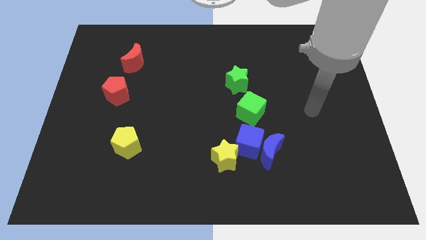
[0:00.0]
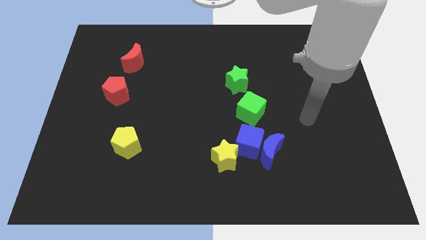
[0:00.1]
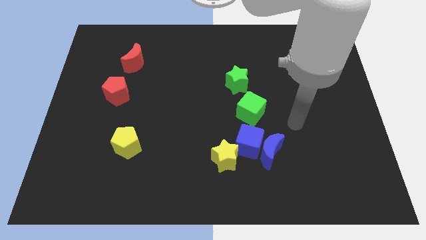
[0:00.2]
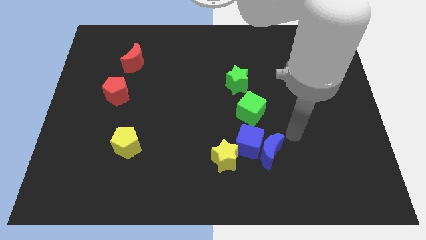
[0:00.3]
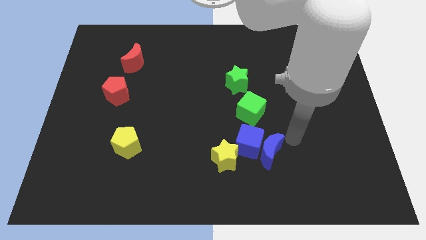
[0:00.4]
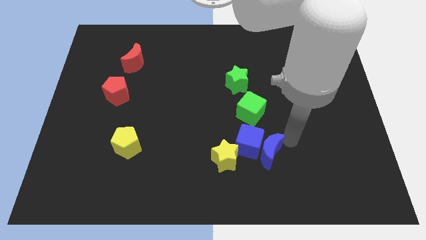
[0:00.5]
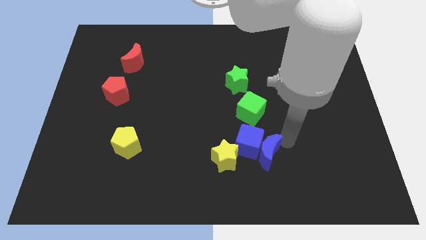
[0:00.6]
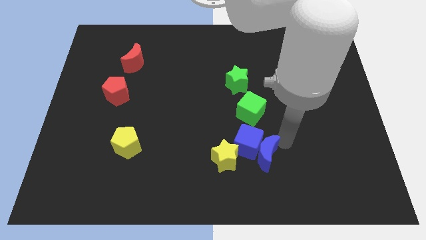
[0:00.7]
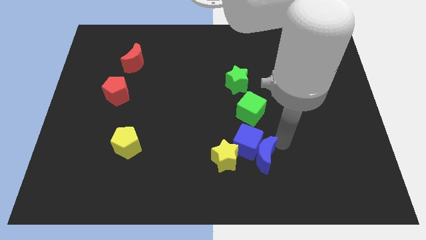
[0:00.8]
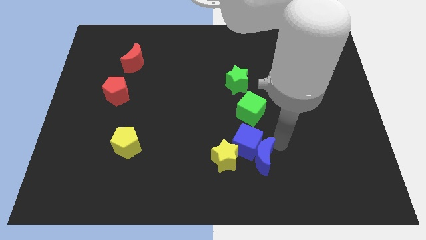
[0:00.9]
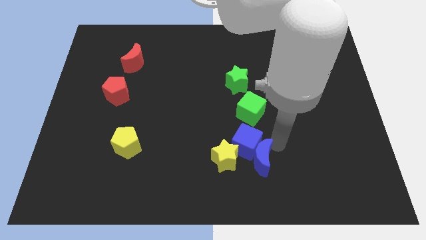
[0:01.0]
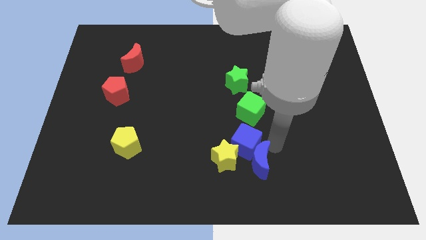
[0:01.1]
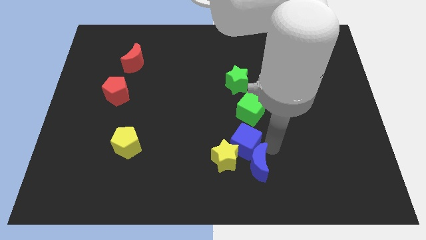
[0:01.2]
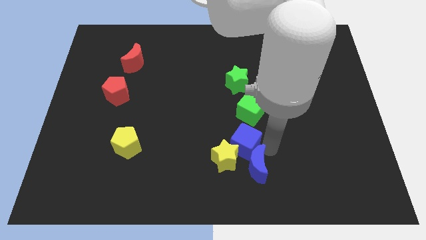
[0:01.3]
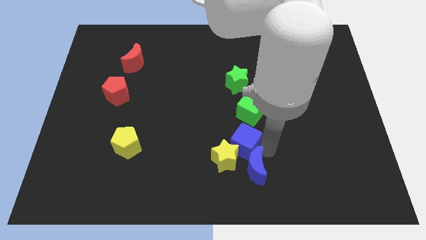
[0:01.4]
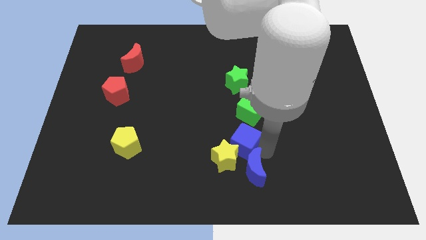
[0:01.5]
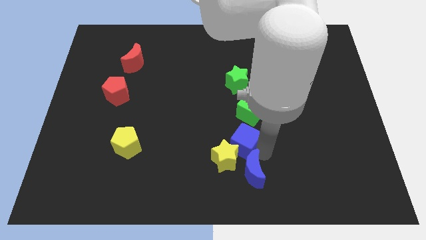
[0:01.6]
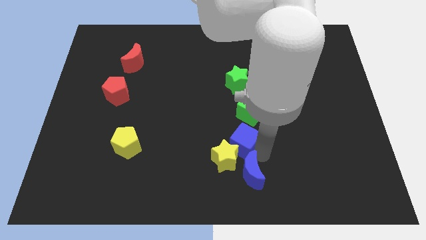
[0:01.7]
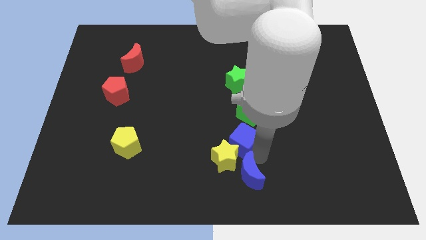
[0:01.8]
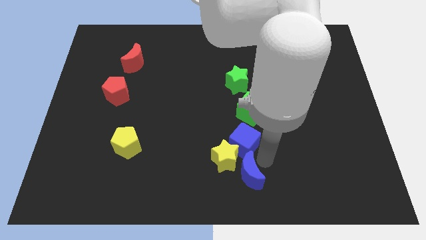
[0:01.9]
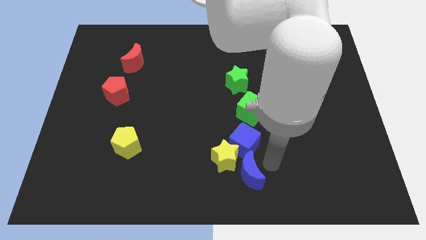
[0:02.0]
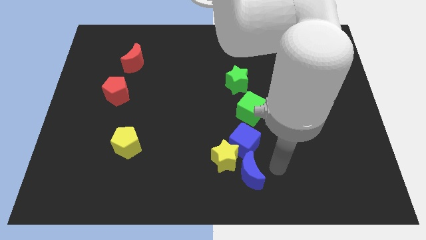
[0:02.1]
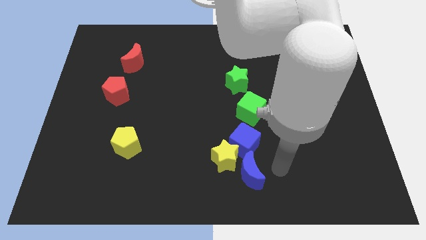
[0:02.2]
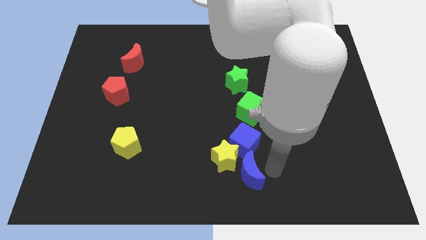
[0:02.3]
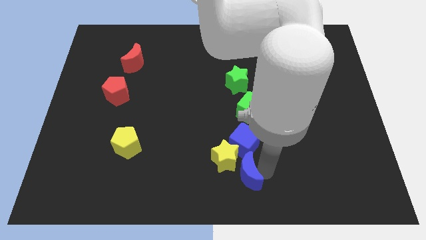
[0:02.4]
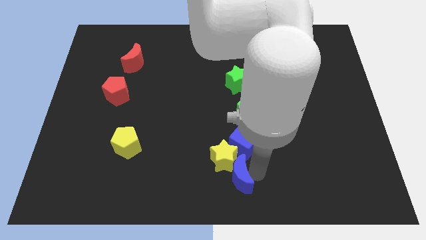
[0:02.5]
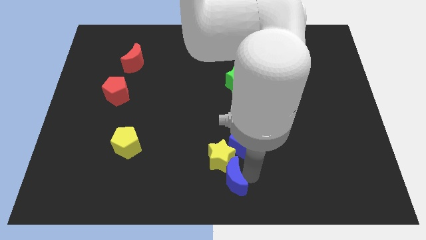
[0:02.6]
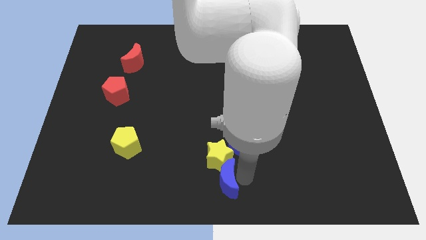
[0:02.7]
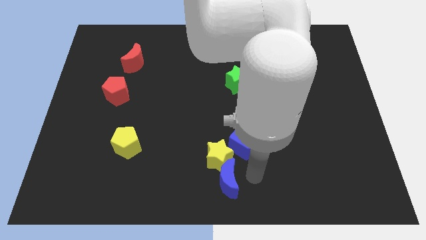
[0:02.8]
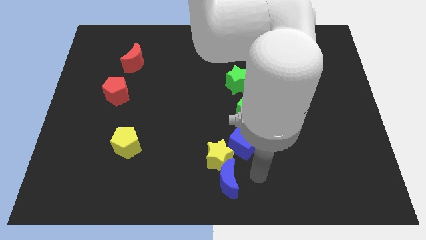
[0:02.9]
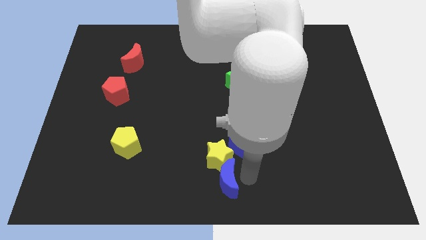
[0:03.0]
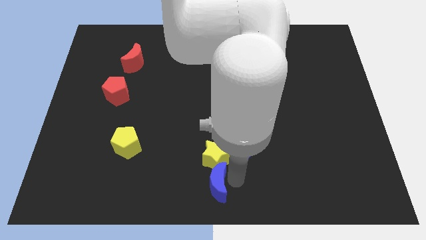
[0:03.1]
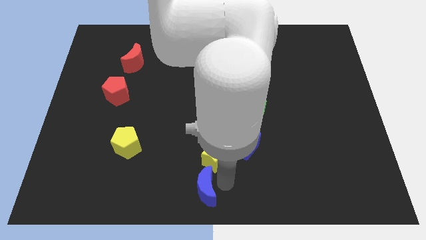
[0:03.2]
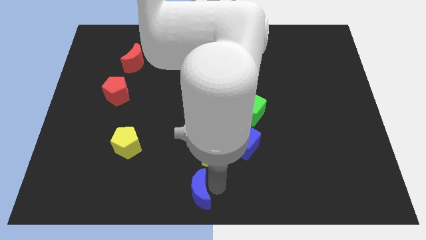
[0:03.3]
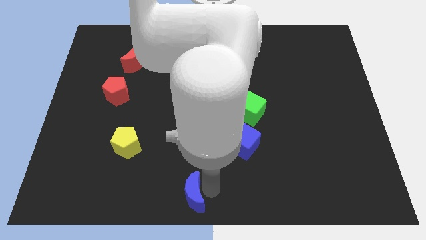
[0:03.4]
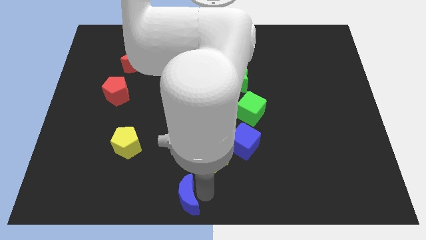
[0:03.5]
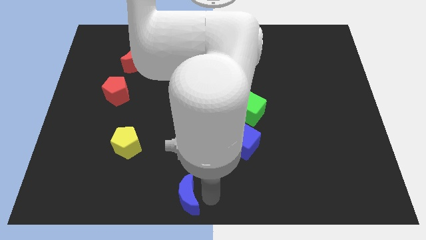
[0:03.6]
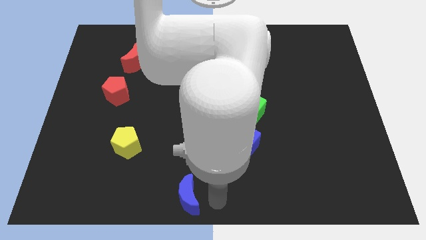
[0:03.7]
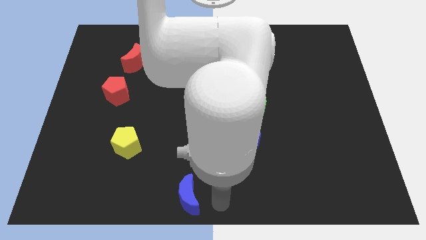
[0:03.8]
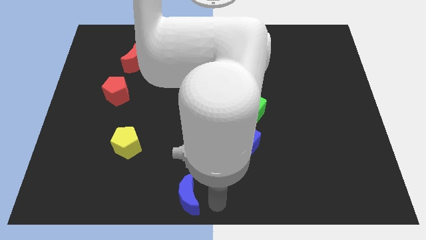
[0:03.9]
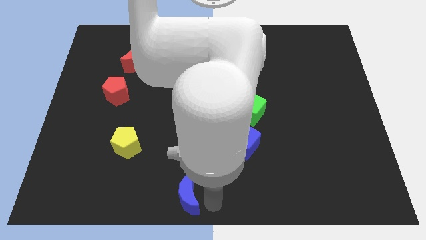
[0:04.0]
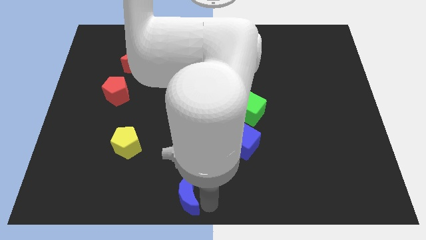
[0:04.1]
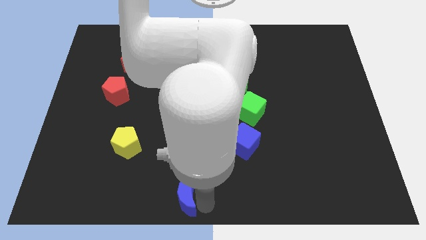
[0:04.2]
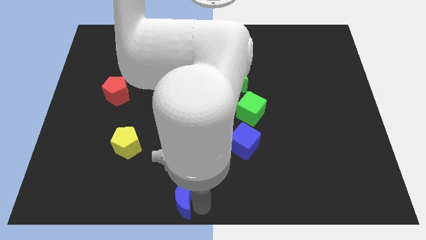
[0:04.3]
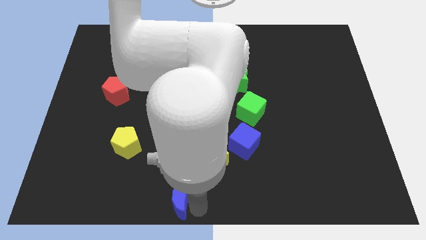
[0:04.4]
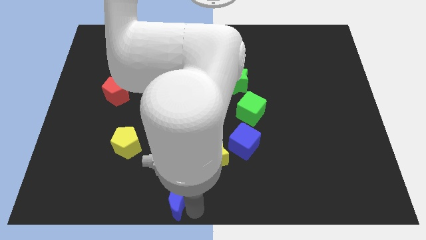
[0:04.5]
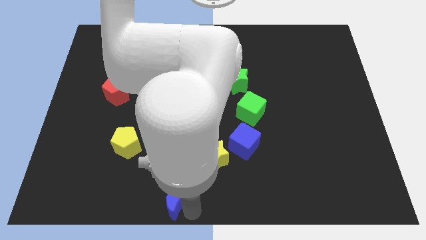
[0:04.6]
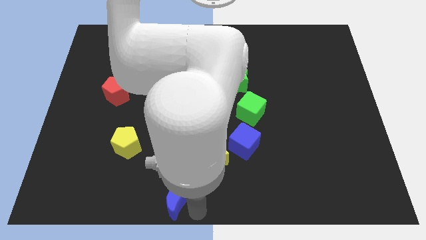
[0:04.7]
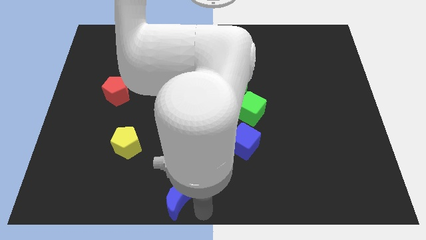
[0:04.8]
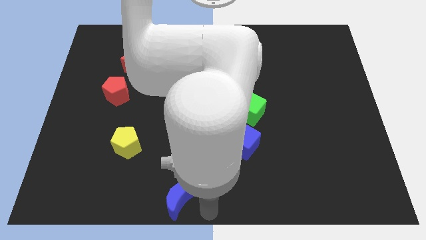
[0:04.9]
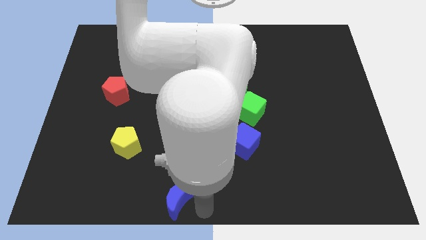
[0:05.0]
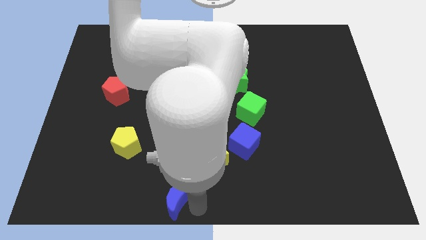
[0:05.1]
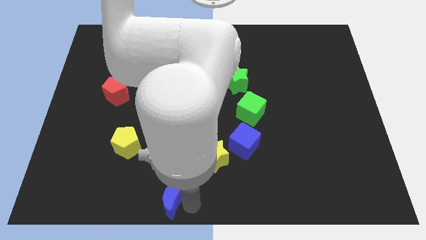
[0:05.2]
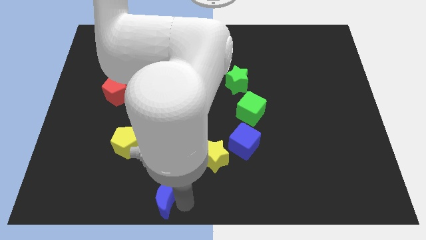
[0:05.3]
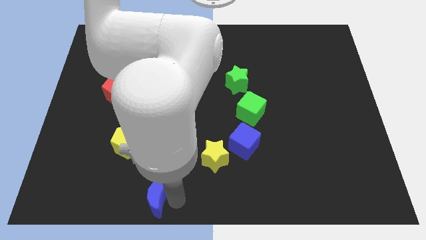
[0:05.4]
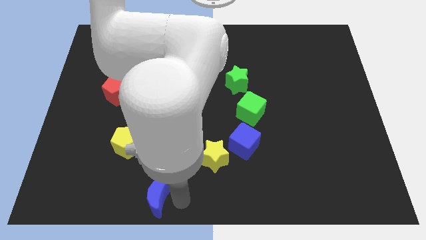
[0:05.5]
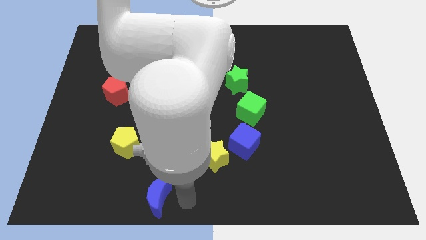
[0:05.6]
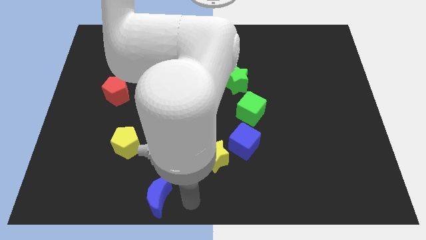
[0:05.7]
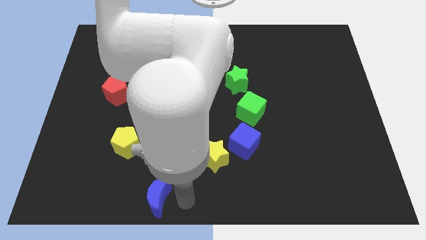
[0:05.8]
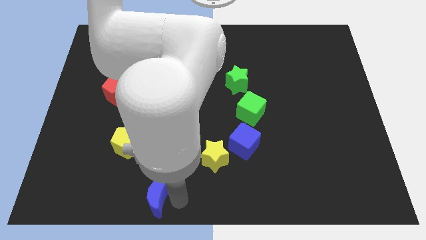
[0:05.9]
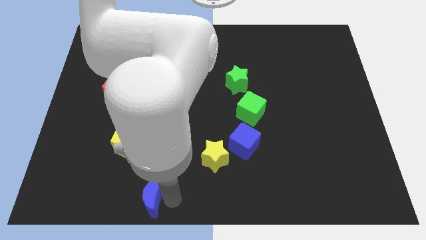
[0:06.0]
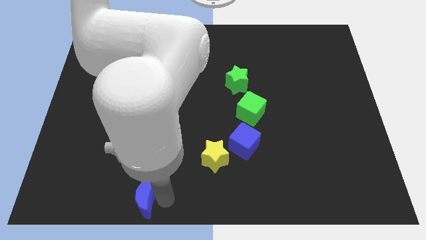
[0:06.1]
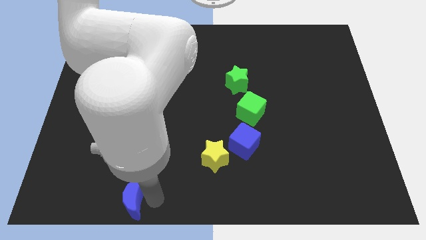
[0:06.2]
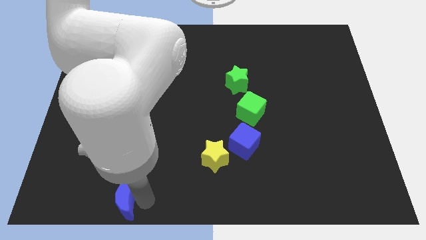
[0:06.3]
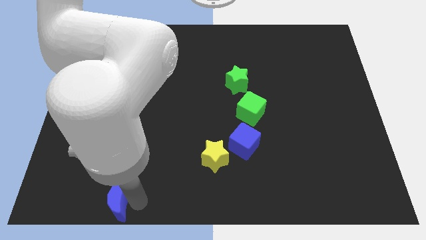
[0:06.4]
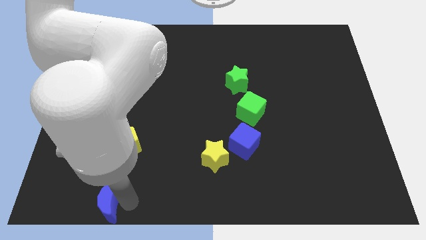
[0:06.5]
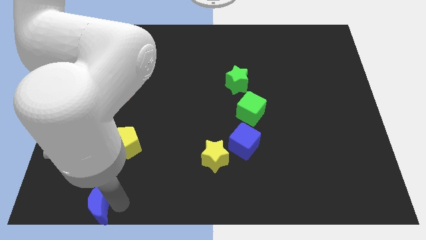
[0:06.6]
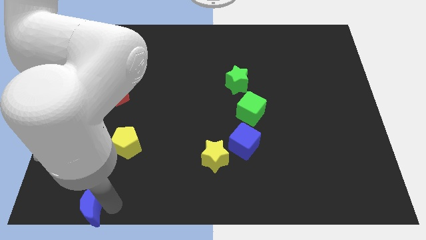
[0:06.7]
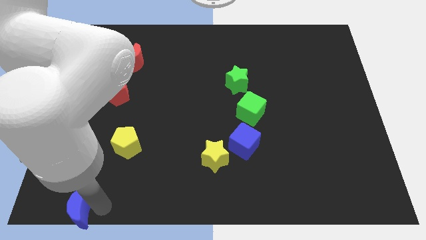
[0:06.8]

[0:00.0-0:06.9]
push the blue moon to the lower left corner
